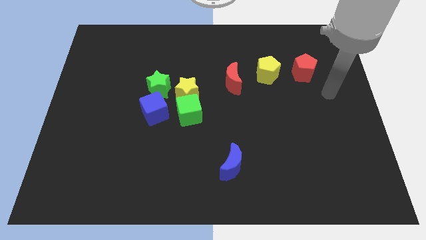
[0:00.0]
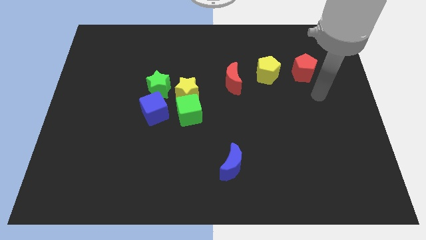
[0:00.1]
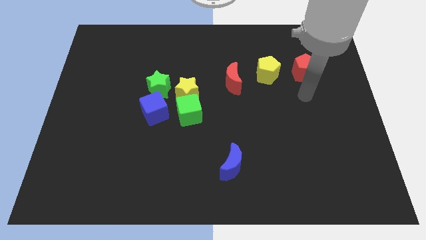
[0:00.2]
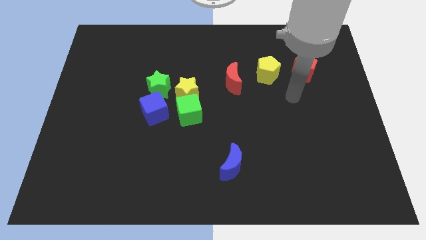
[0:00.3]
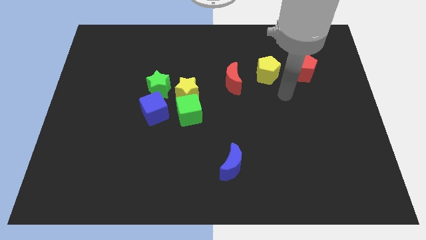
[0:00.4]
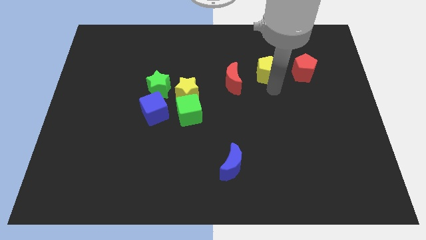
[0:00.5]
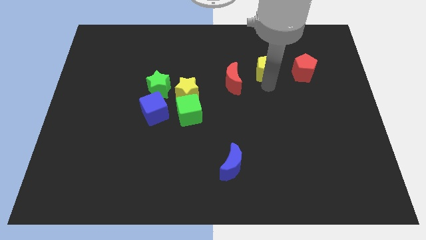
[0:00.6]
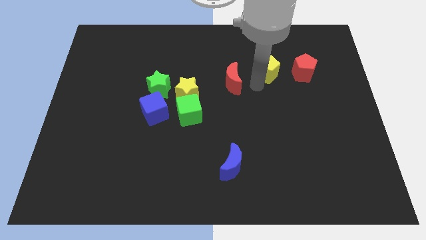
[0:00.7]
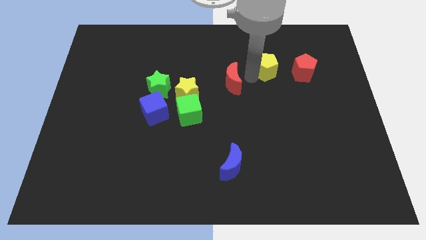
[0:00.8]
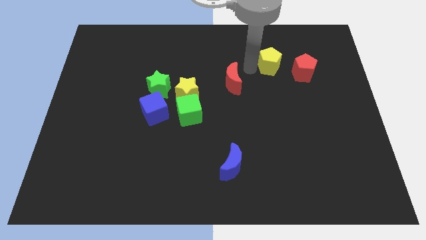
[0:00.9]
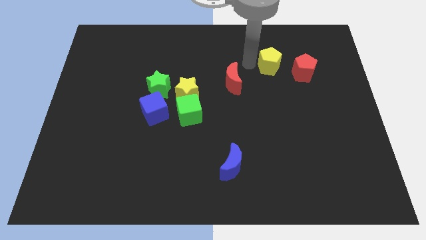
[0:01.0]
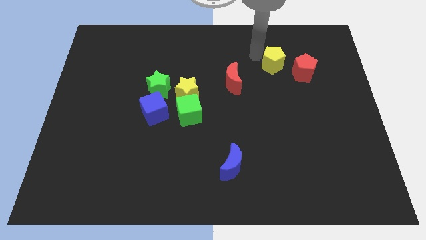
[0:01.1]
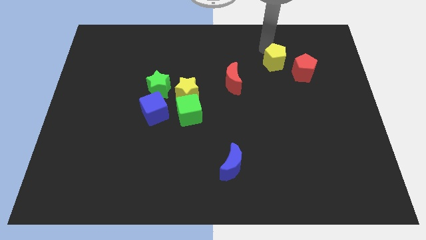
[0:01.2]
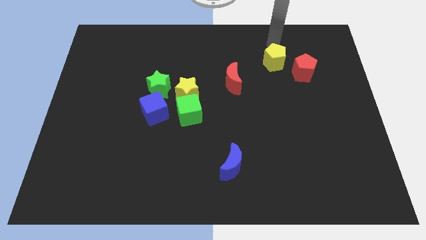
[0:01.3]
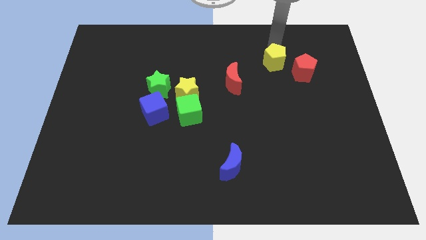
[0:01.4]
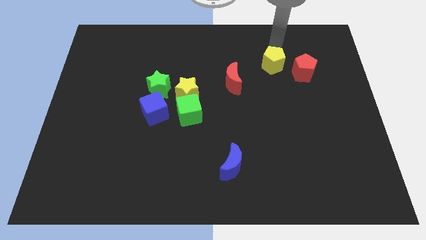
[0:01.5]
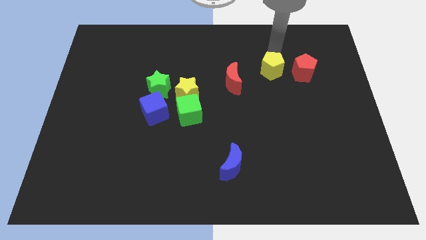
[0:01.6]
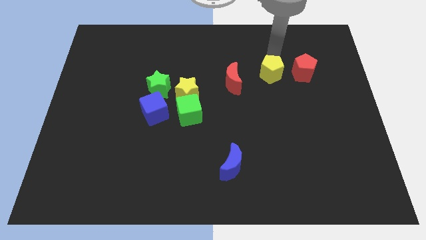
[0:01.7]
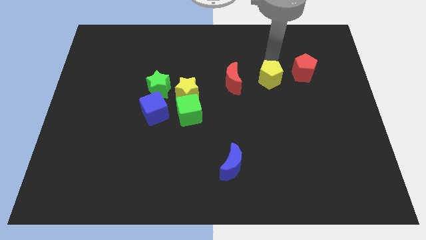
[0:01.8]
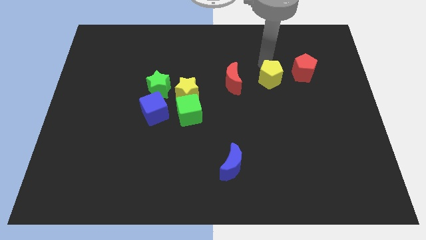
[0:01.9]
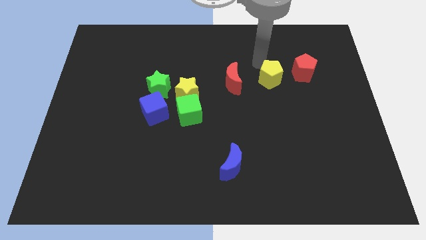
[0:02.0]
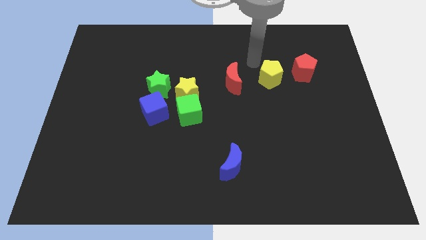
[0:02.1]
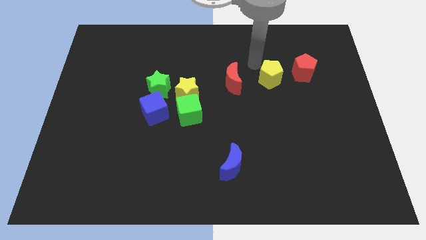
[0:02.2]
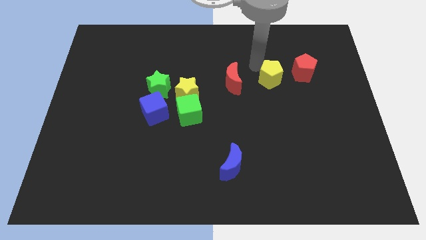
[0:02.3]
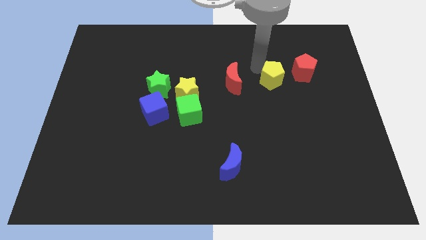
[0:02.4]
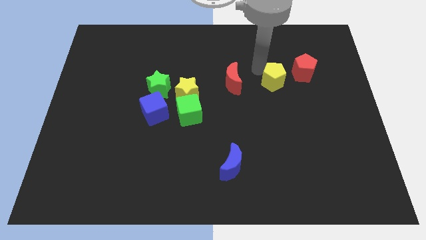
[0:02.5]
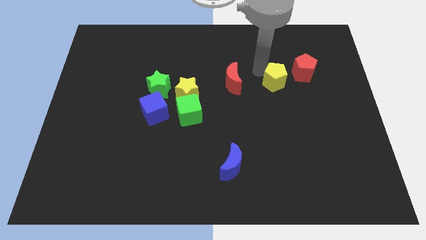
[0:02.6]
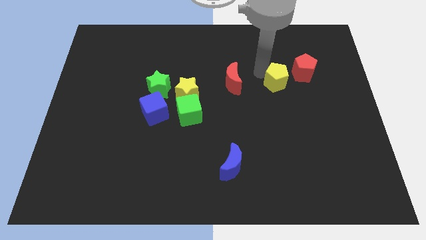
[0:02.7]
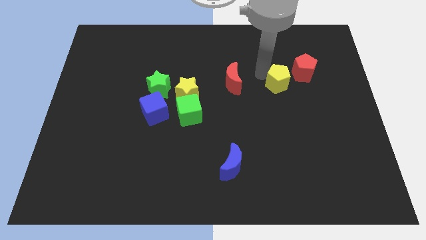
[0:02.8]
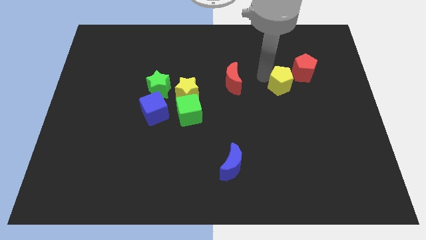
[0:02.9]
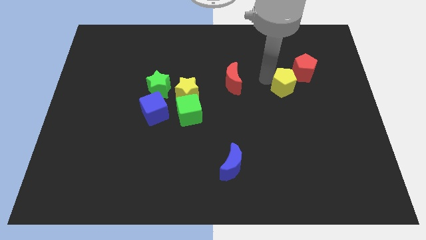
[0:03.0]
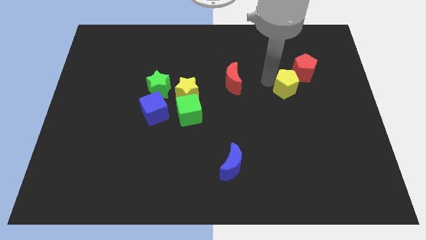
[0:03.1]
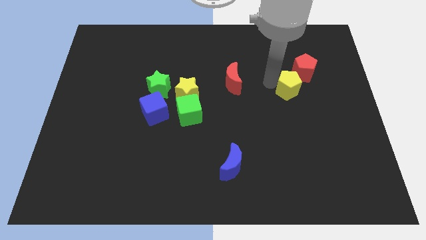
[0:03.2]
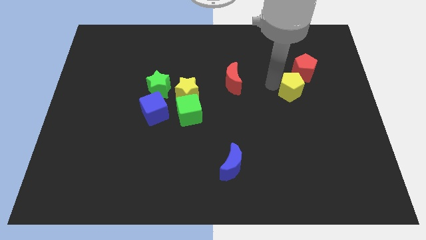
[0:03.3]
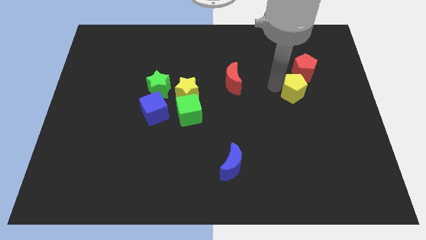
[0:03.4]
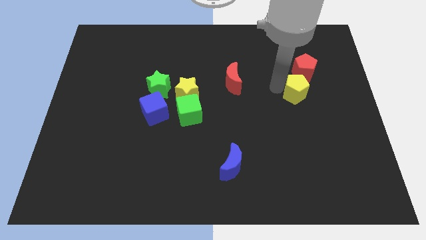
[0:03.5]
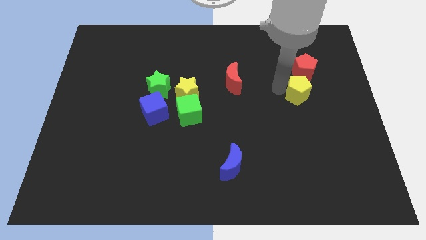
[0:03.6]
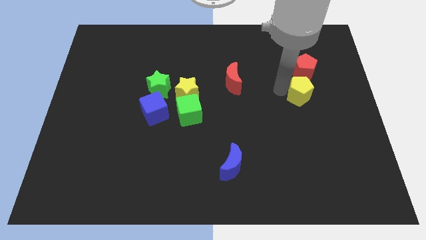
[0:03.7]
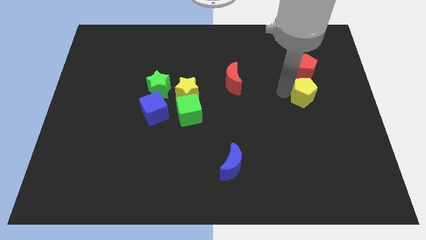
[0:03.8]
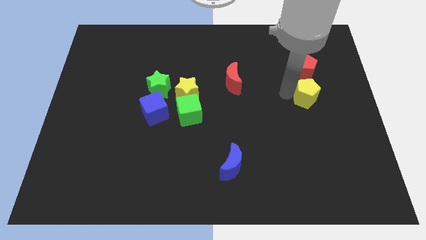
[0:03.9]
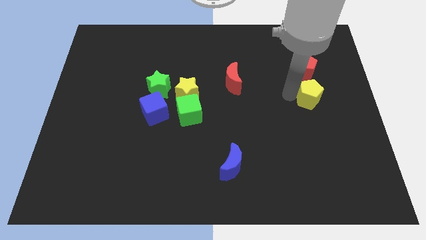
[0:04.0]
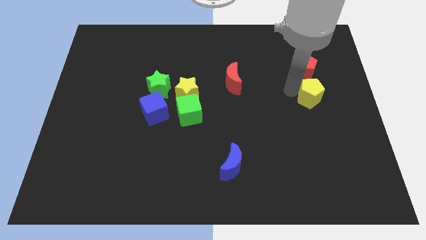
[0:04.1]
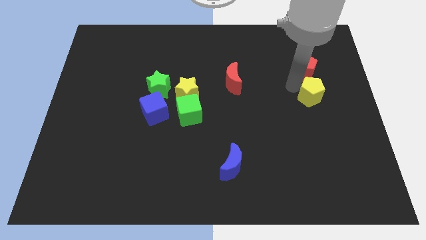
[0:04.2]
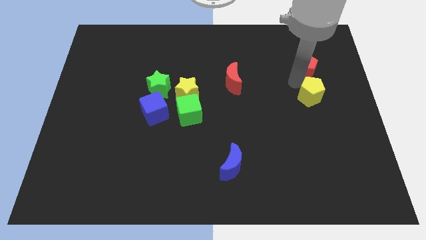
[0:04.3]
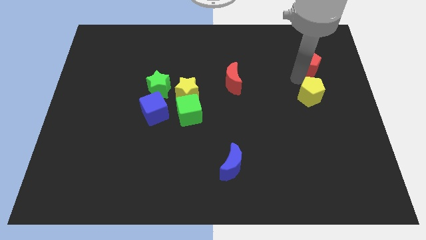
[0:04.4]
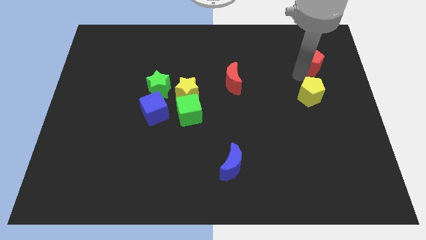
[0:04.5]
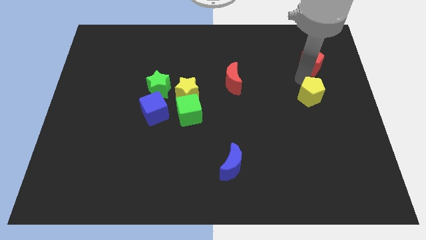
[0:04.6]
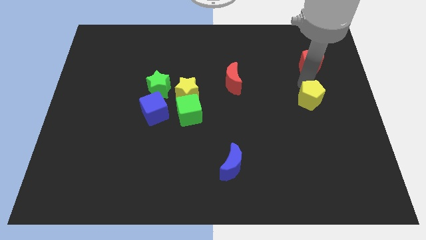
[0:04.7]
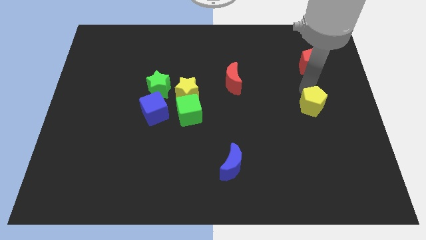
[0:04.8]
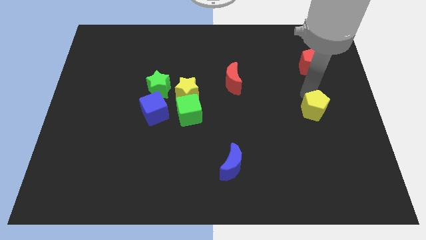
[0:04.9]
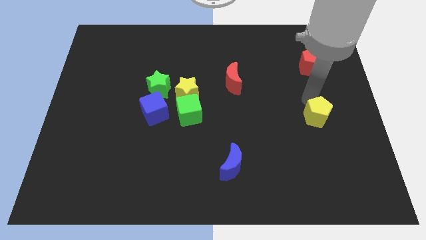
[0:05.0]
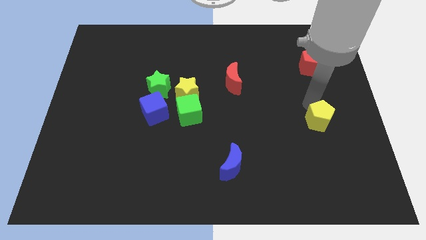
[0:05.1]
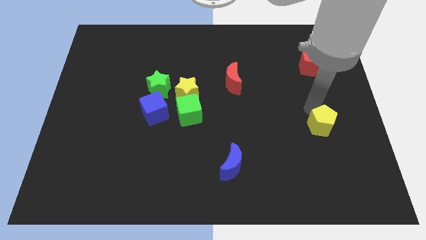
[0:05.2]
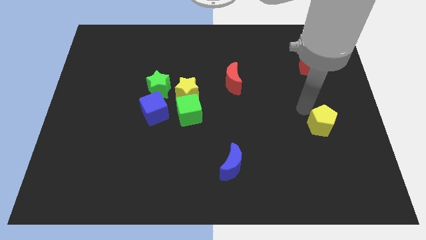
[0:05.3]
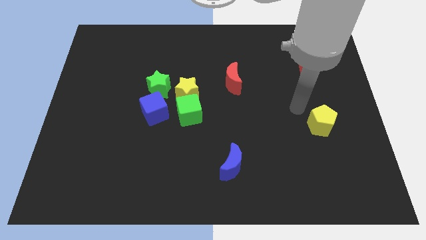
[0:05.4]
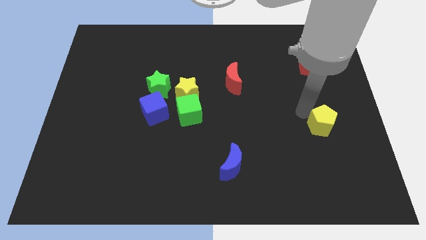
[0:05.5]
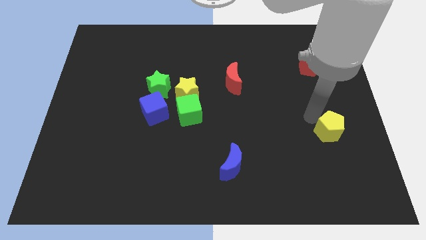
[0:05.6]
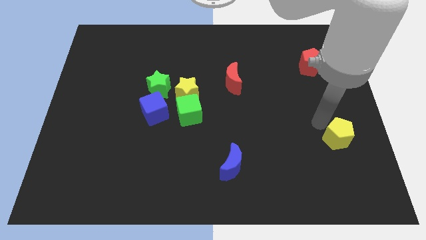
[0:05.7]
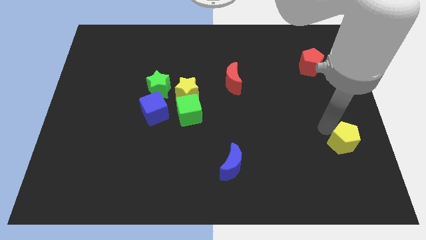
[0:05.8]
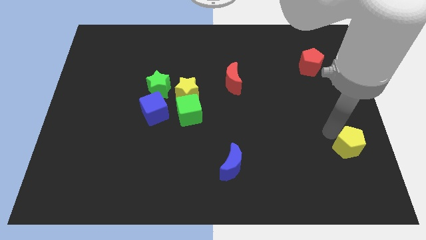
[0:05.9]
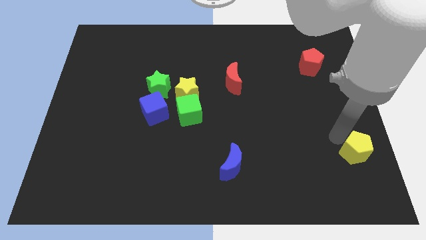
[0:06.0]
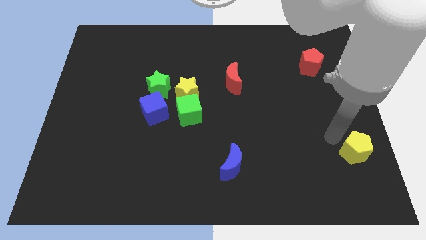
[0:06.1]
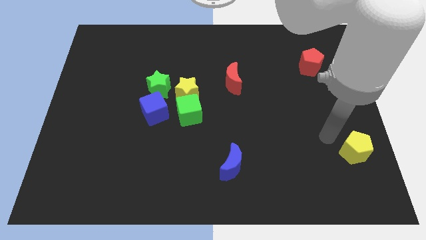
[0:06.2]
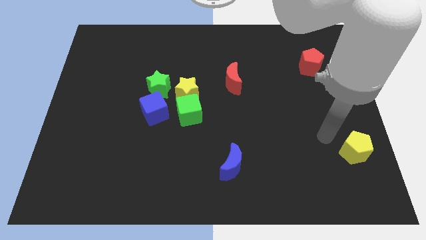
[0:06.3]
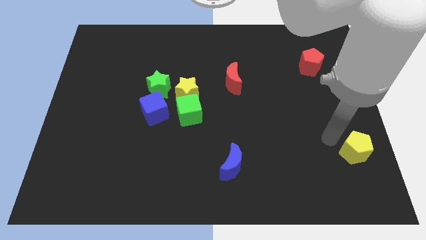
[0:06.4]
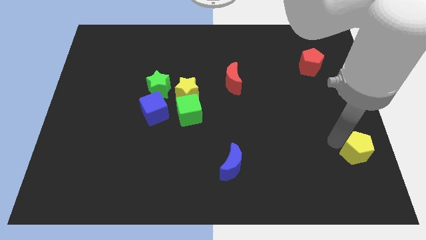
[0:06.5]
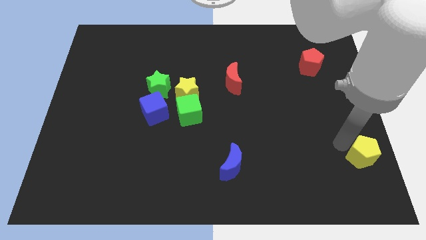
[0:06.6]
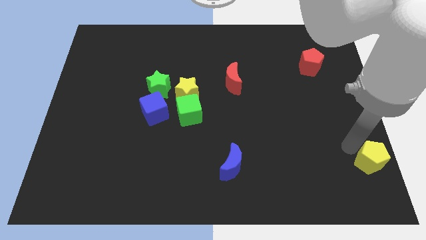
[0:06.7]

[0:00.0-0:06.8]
move the yellow pentagon to the lower right corner
